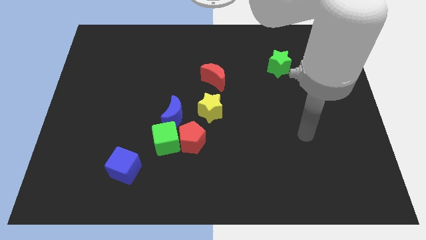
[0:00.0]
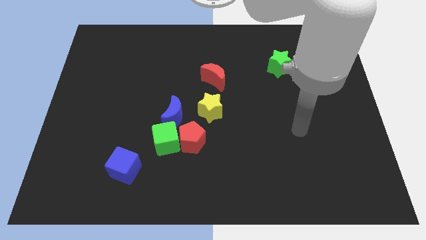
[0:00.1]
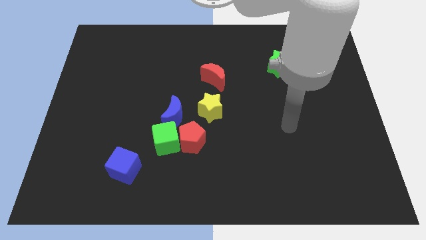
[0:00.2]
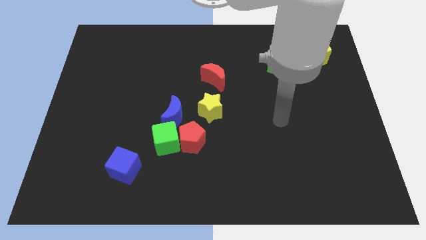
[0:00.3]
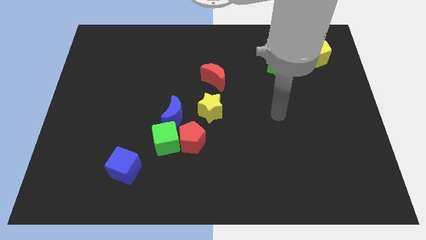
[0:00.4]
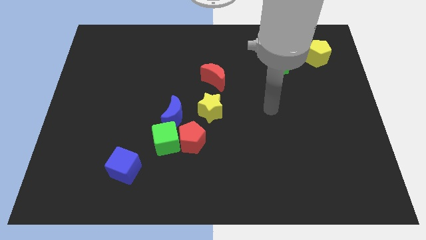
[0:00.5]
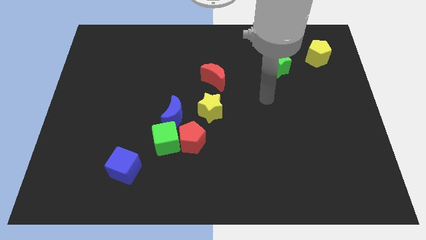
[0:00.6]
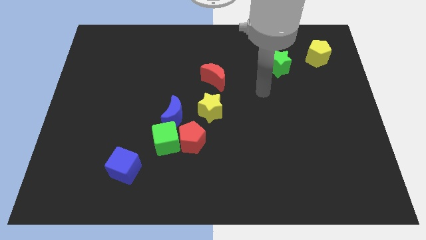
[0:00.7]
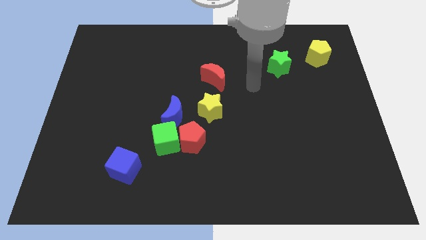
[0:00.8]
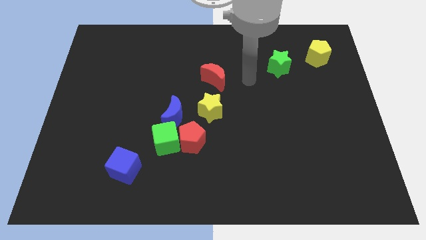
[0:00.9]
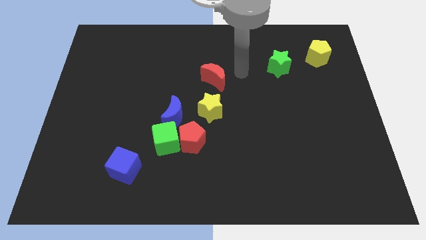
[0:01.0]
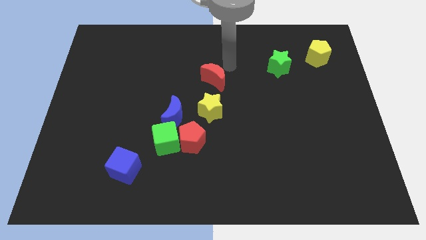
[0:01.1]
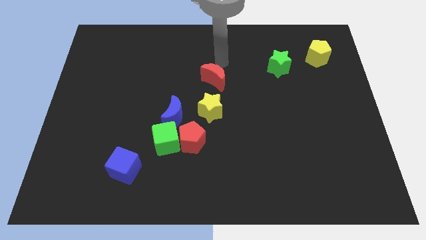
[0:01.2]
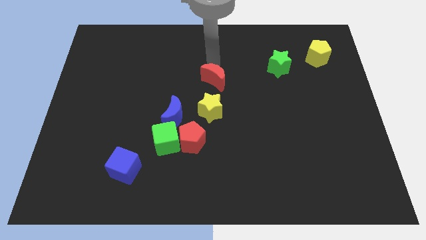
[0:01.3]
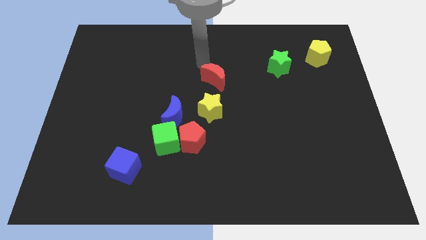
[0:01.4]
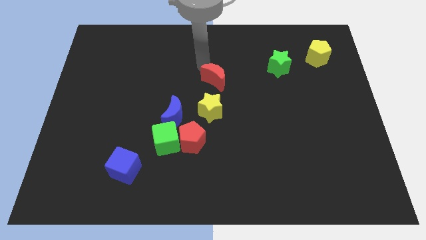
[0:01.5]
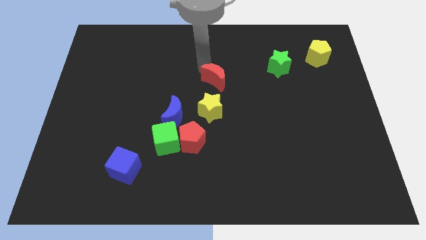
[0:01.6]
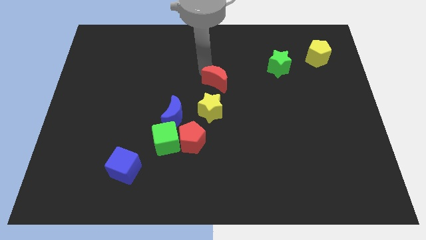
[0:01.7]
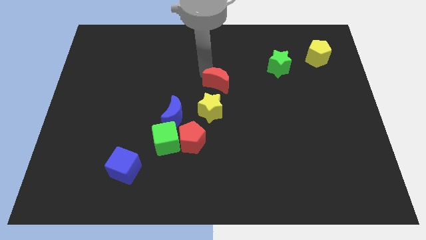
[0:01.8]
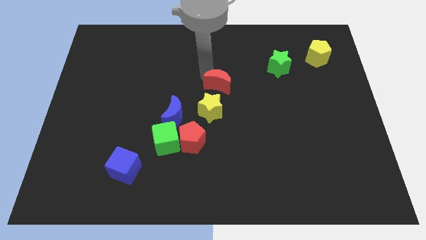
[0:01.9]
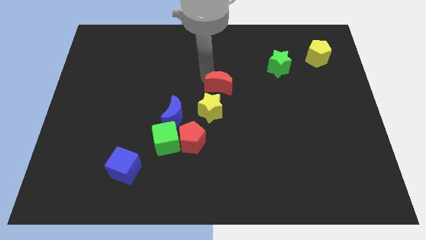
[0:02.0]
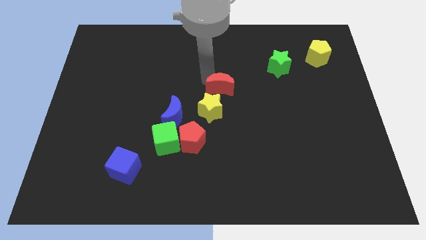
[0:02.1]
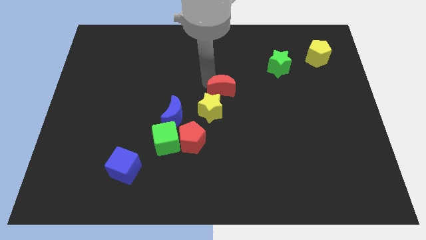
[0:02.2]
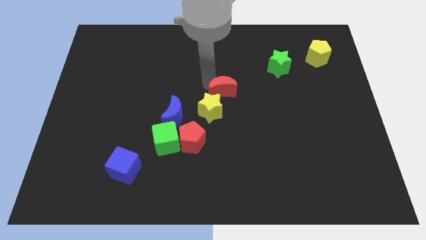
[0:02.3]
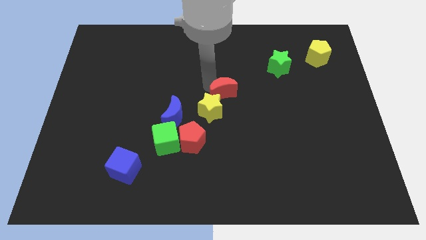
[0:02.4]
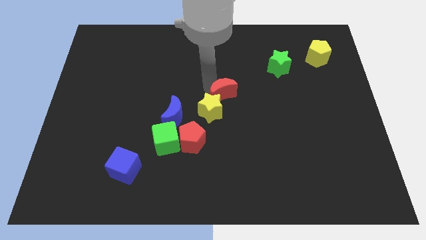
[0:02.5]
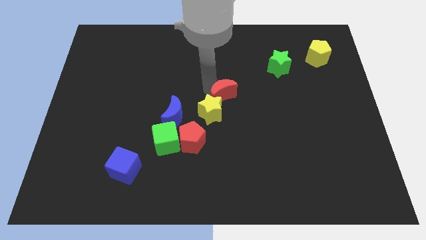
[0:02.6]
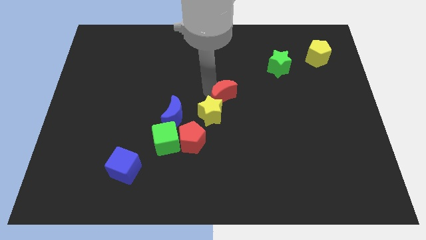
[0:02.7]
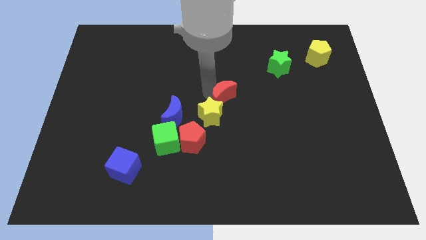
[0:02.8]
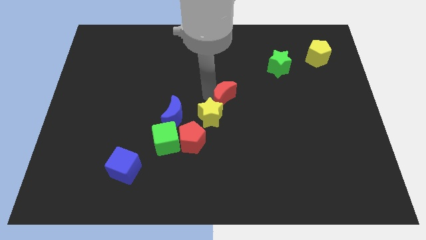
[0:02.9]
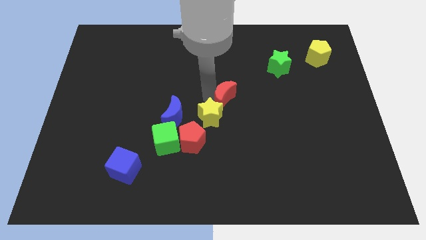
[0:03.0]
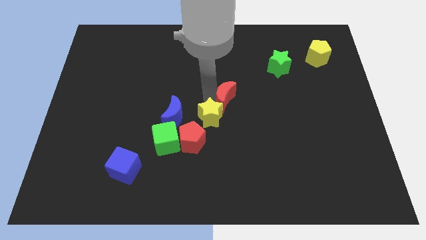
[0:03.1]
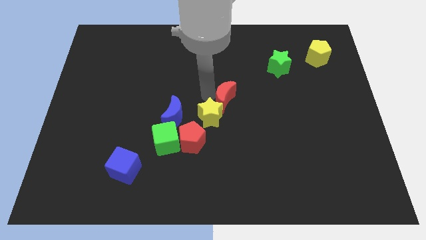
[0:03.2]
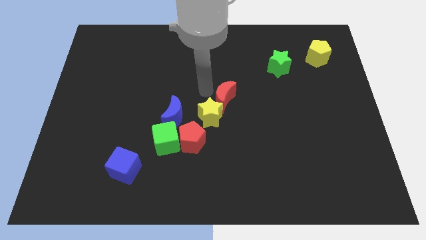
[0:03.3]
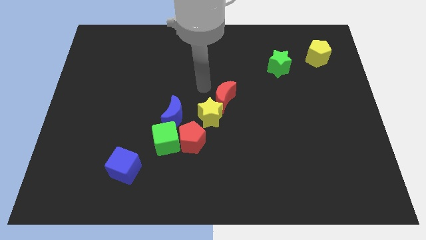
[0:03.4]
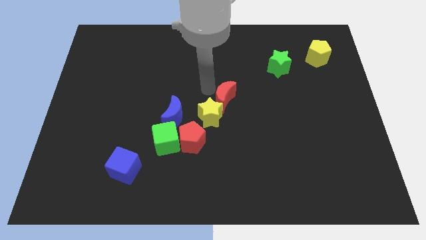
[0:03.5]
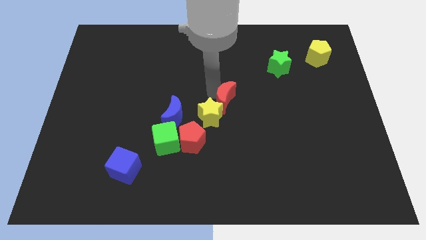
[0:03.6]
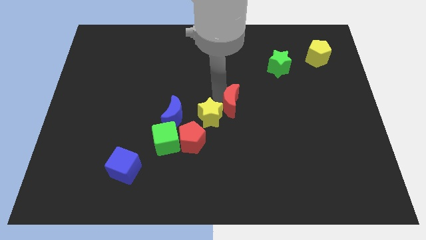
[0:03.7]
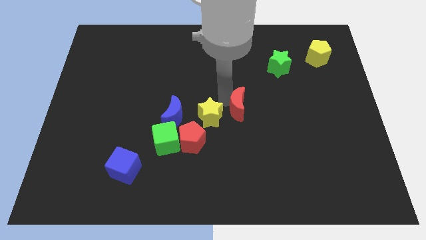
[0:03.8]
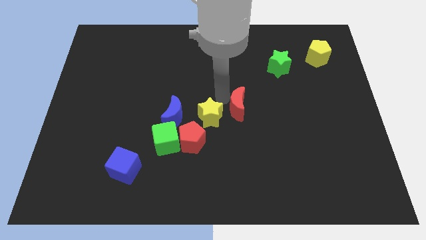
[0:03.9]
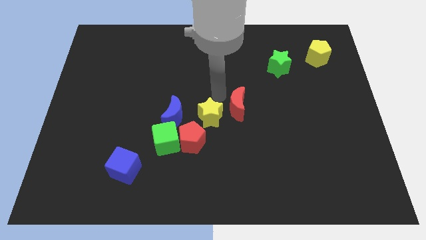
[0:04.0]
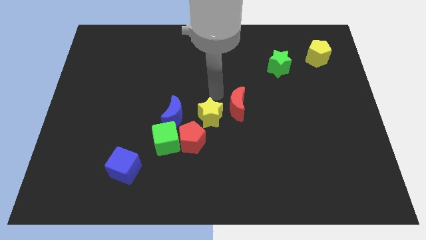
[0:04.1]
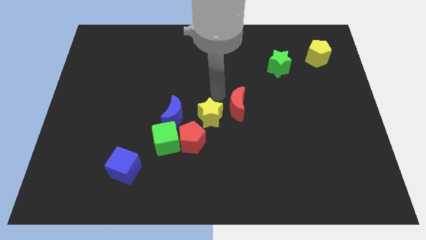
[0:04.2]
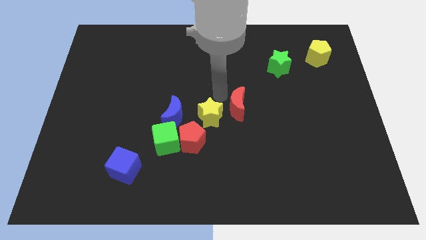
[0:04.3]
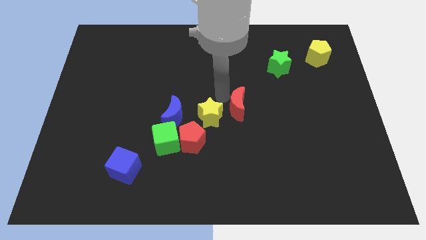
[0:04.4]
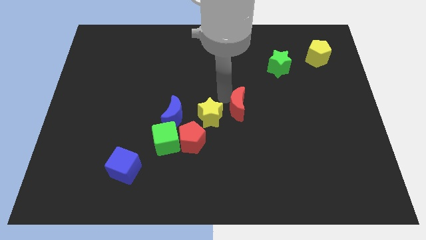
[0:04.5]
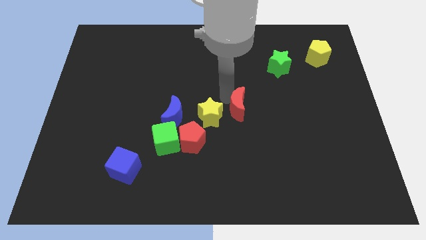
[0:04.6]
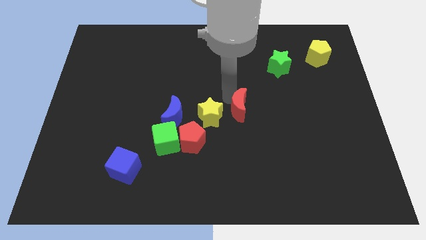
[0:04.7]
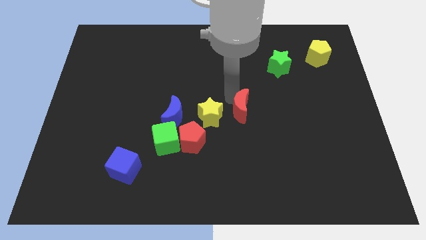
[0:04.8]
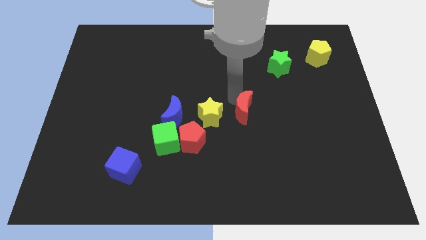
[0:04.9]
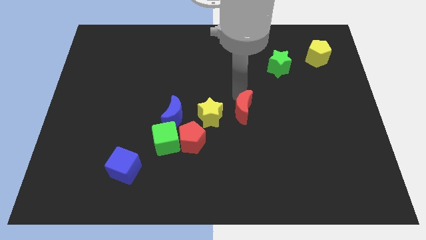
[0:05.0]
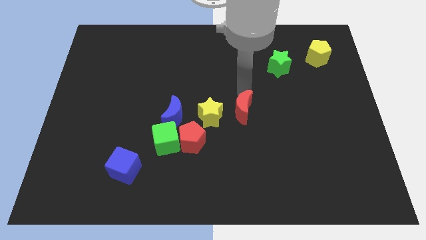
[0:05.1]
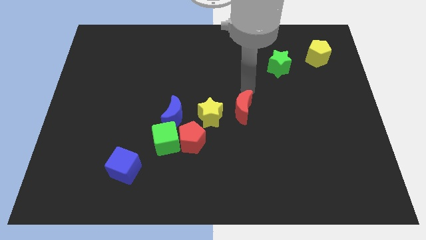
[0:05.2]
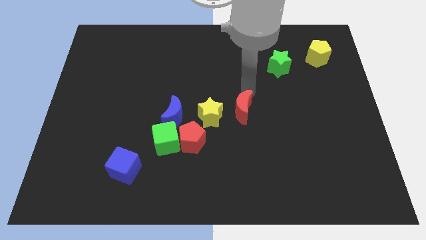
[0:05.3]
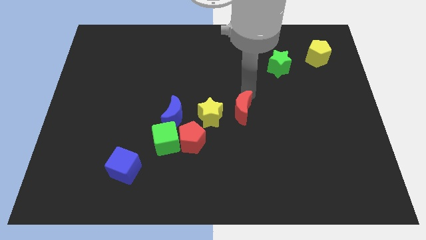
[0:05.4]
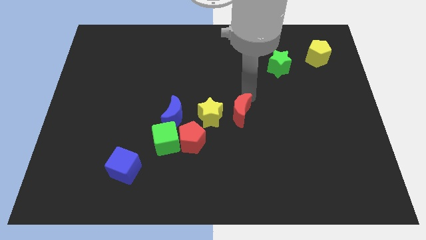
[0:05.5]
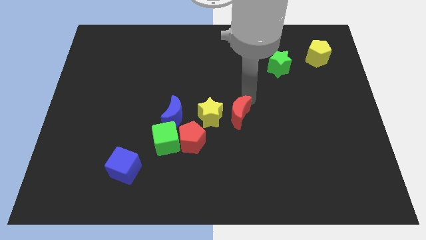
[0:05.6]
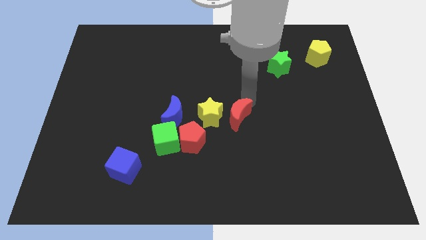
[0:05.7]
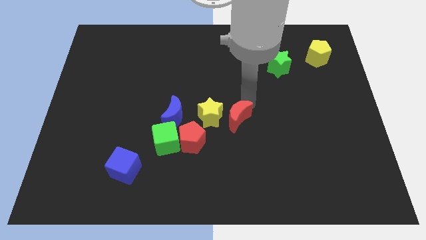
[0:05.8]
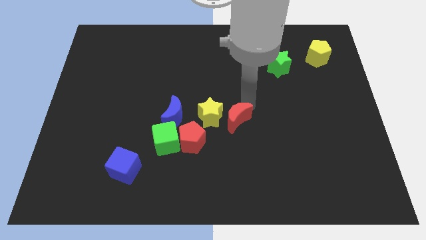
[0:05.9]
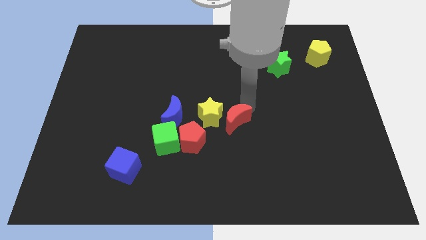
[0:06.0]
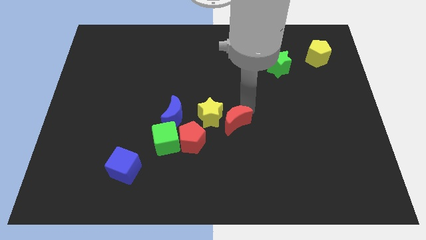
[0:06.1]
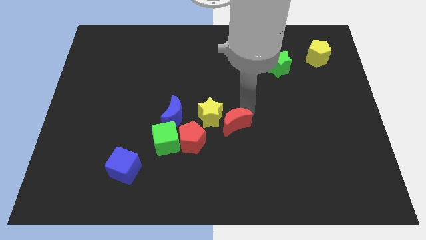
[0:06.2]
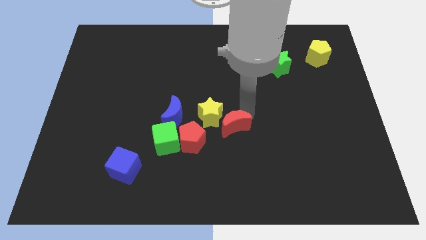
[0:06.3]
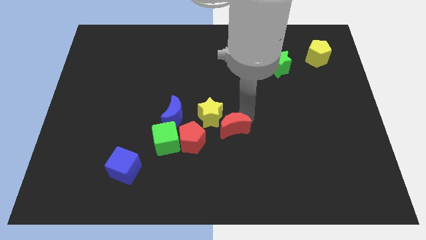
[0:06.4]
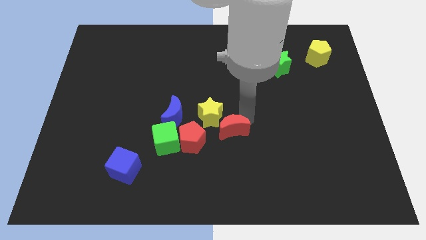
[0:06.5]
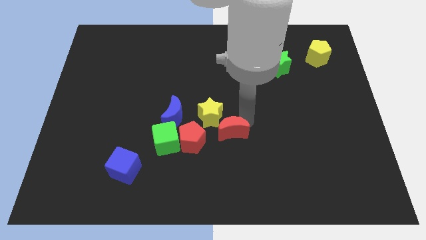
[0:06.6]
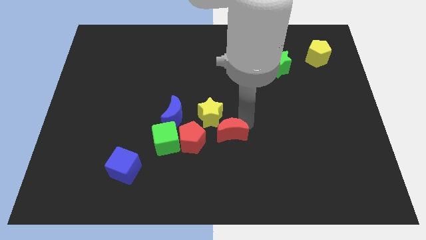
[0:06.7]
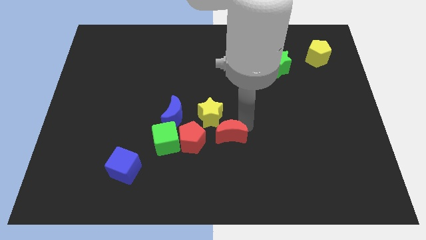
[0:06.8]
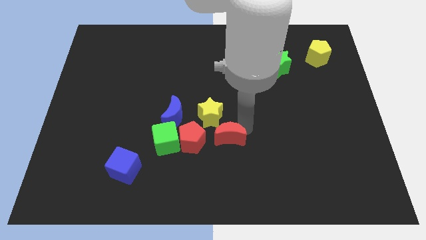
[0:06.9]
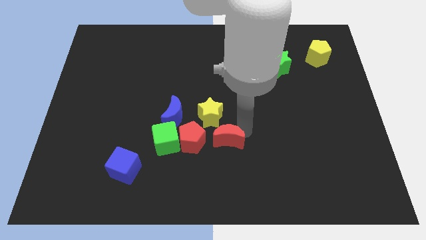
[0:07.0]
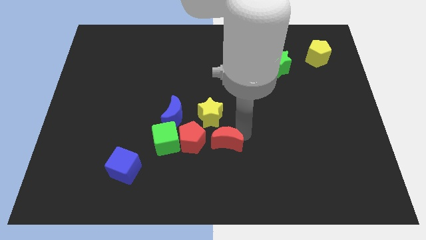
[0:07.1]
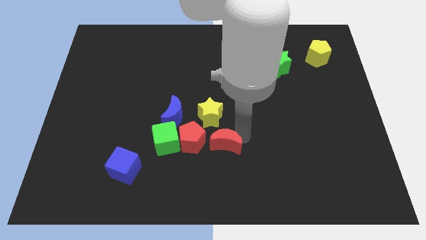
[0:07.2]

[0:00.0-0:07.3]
move the red moon to the bottom right side of the red pentagon
